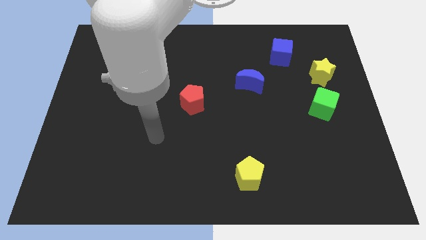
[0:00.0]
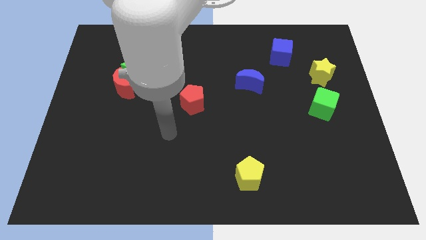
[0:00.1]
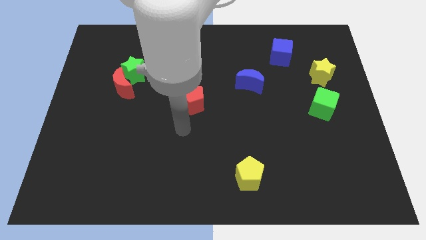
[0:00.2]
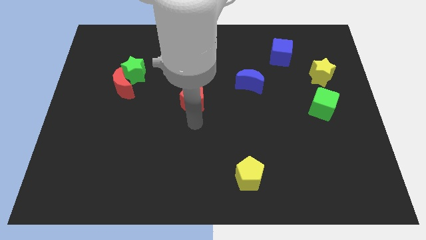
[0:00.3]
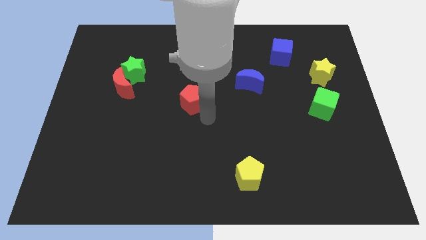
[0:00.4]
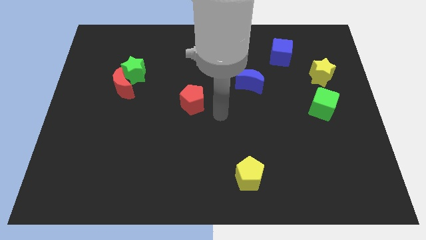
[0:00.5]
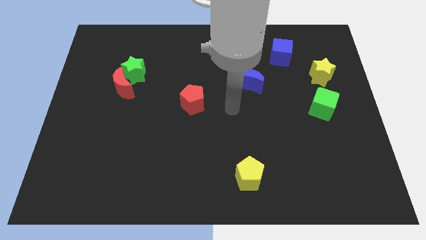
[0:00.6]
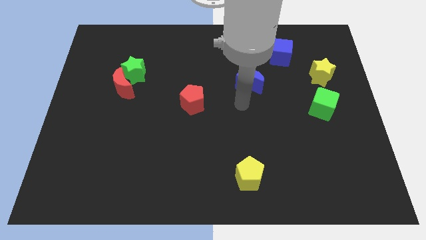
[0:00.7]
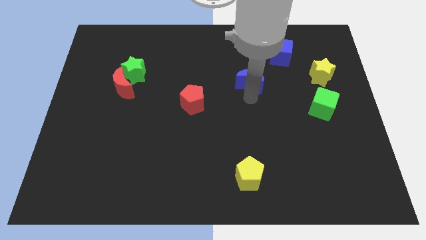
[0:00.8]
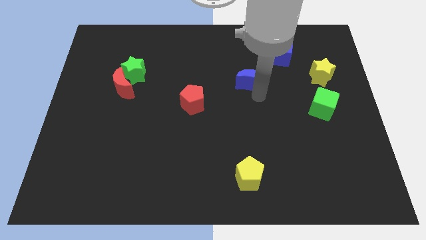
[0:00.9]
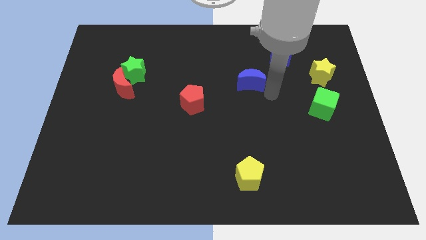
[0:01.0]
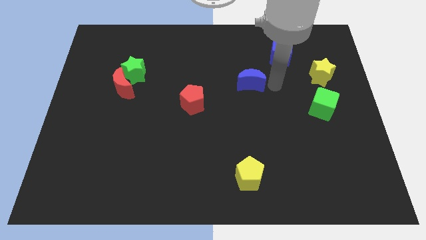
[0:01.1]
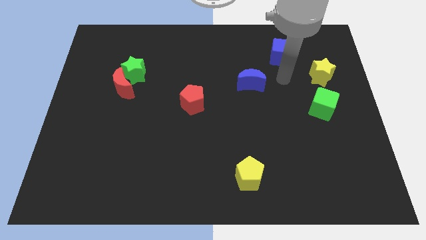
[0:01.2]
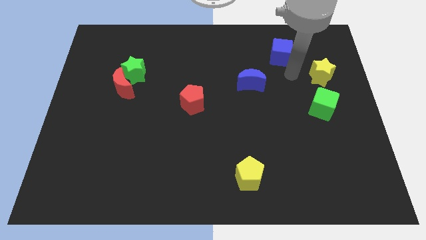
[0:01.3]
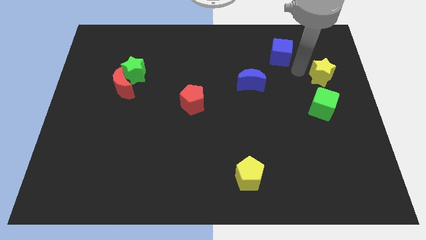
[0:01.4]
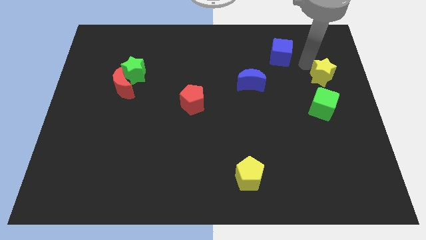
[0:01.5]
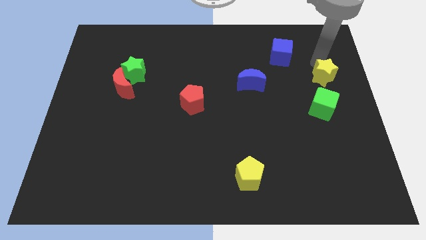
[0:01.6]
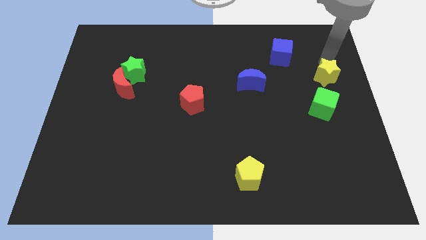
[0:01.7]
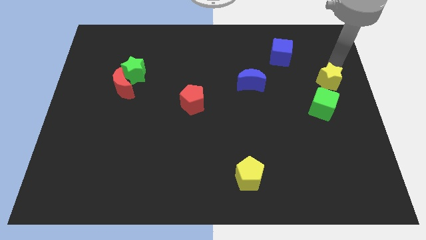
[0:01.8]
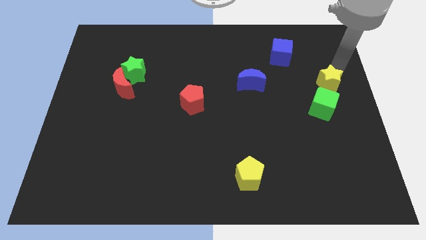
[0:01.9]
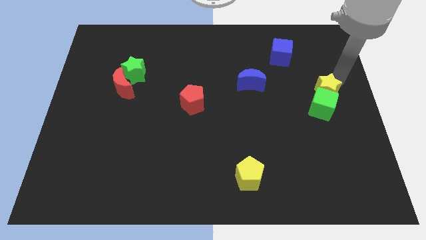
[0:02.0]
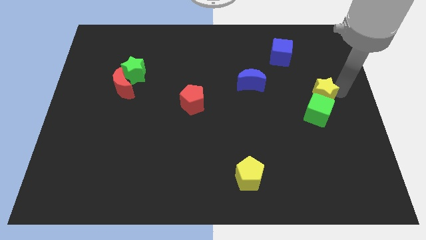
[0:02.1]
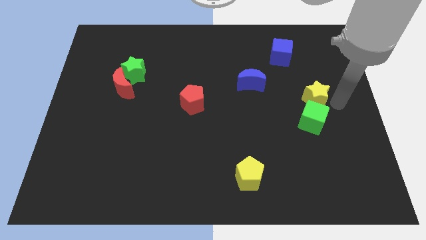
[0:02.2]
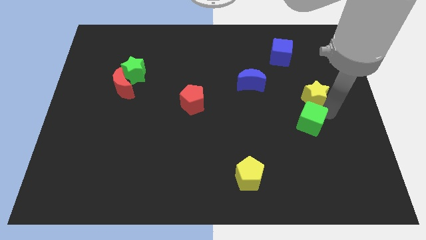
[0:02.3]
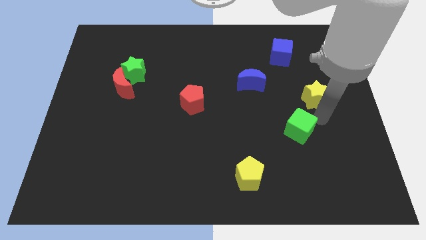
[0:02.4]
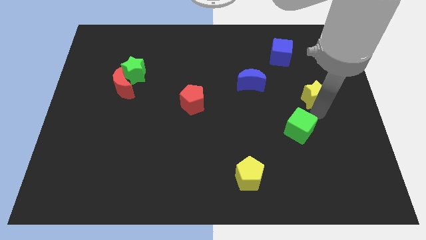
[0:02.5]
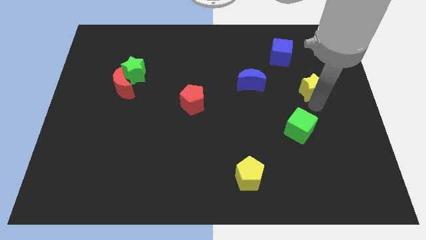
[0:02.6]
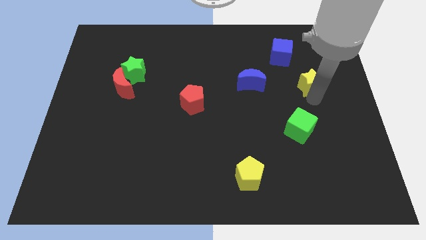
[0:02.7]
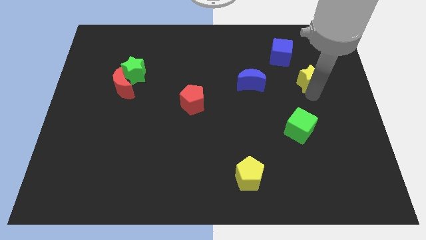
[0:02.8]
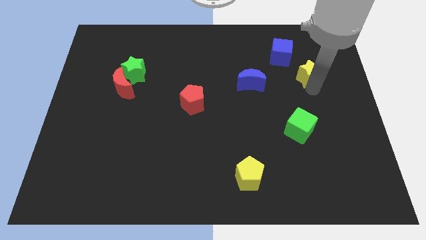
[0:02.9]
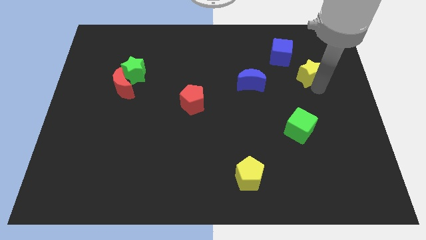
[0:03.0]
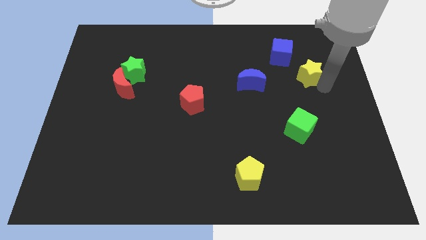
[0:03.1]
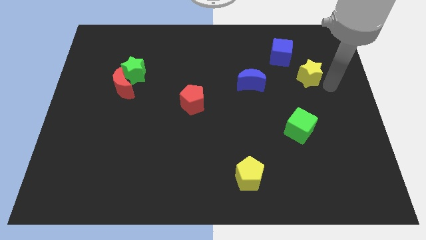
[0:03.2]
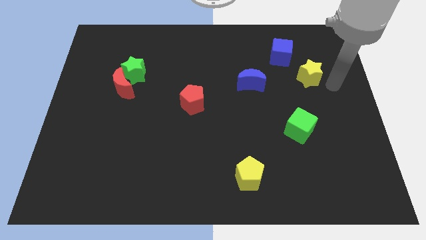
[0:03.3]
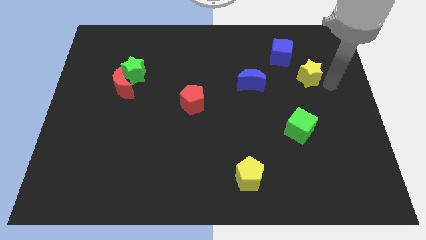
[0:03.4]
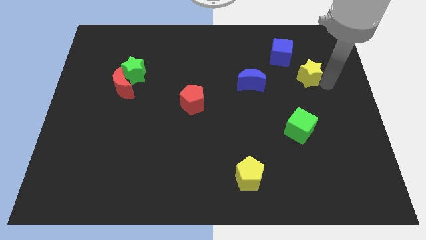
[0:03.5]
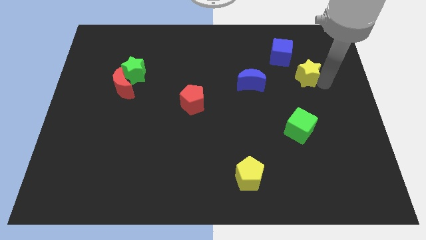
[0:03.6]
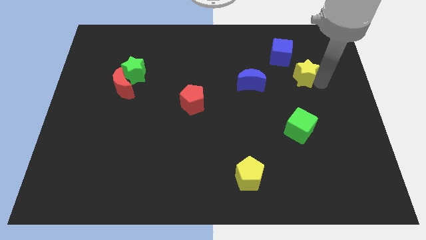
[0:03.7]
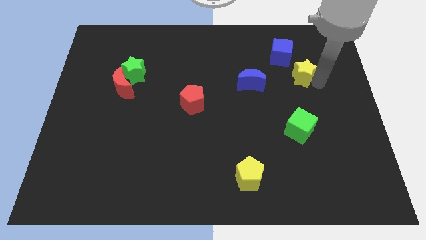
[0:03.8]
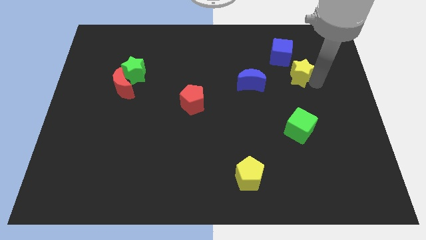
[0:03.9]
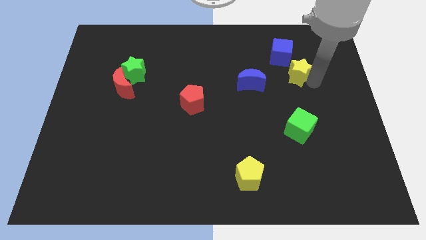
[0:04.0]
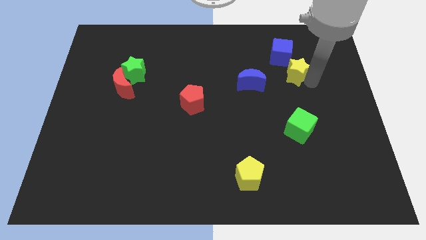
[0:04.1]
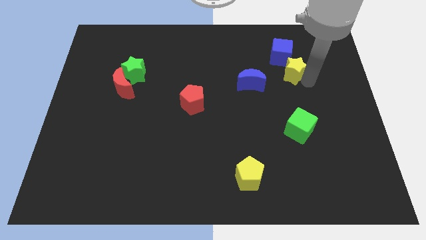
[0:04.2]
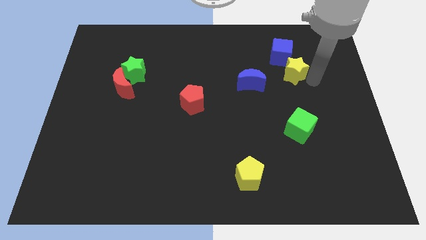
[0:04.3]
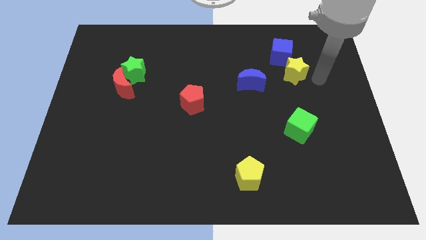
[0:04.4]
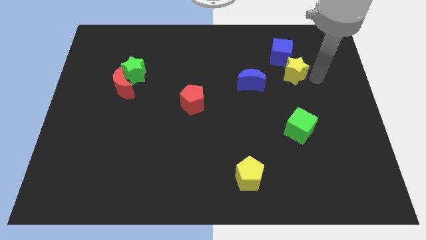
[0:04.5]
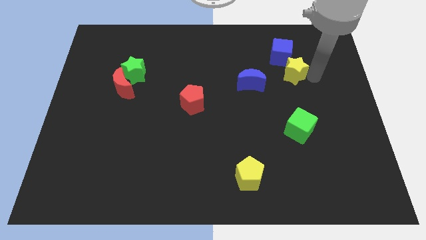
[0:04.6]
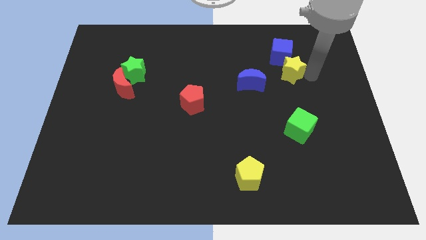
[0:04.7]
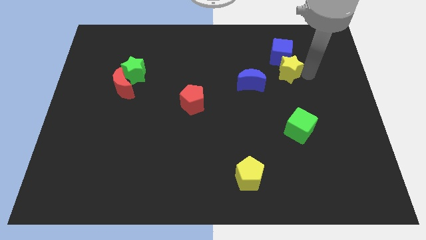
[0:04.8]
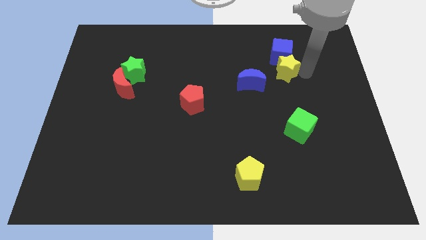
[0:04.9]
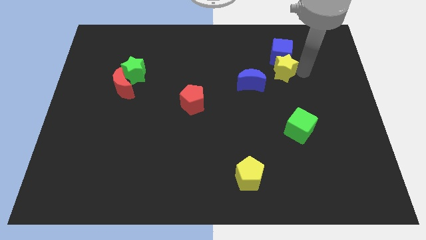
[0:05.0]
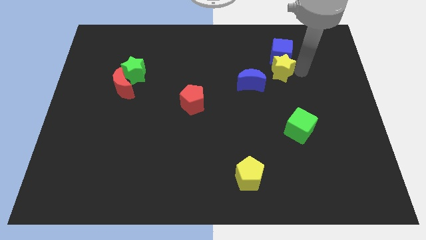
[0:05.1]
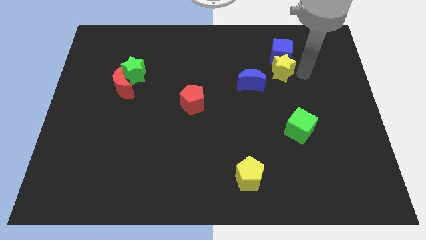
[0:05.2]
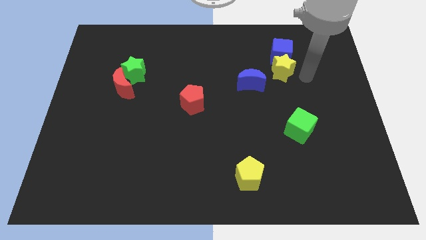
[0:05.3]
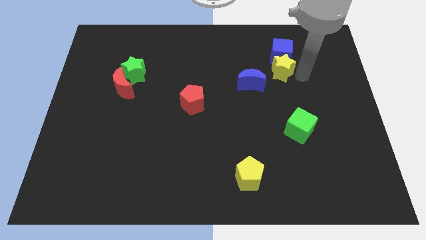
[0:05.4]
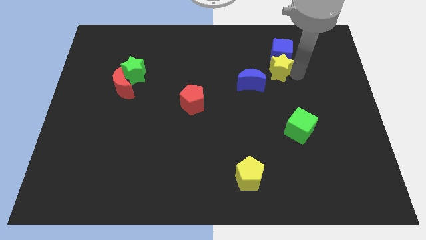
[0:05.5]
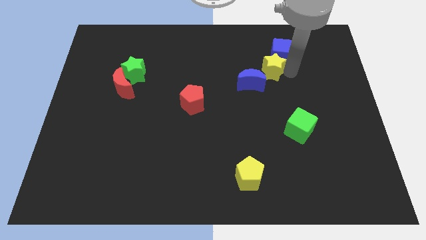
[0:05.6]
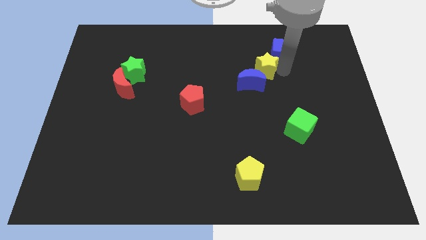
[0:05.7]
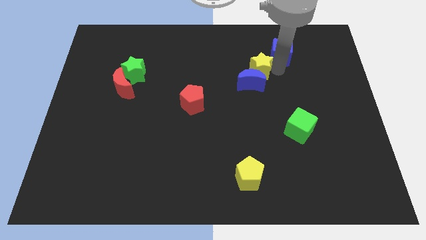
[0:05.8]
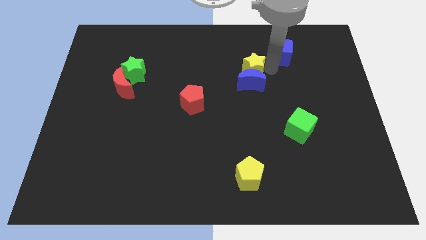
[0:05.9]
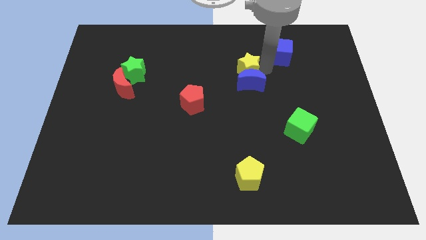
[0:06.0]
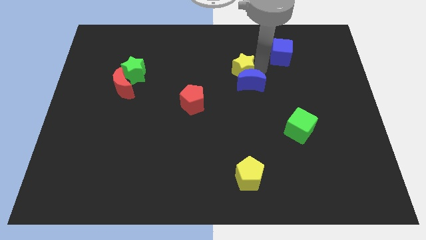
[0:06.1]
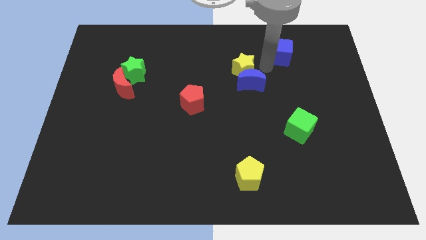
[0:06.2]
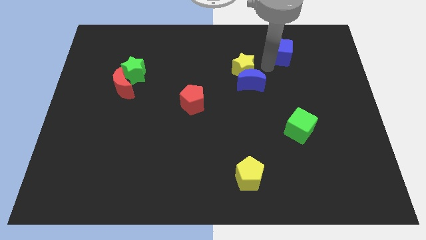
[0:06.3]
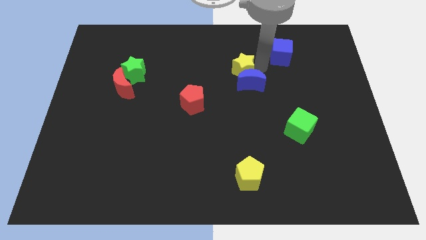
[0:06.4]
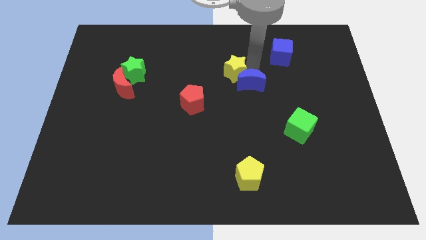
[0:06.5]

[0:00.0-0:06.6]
push the yellow star to the left

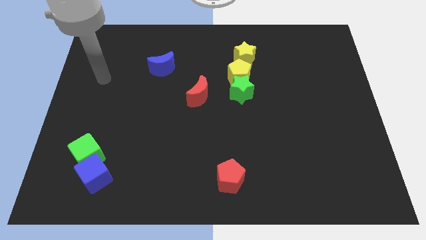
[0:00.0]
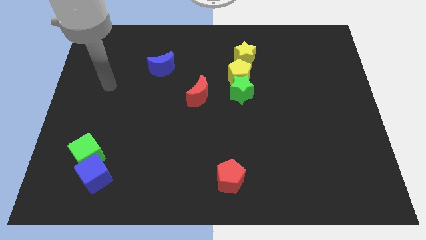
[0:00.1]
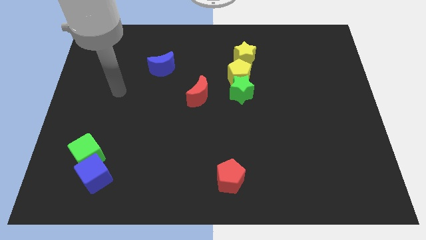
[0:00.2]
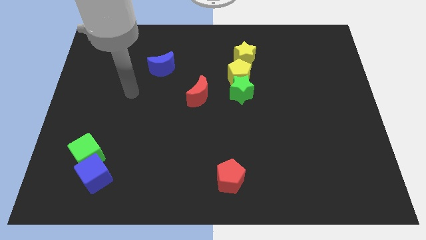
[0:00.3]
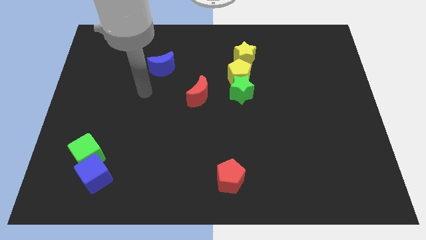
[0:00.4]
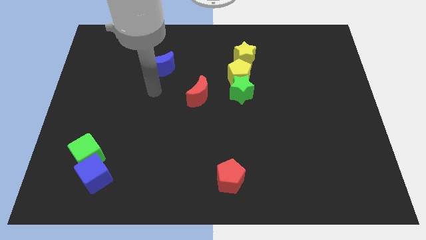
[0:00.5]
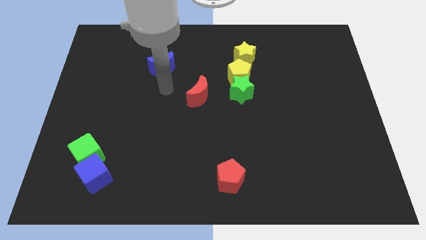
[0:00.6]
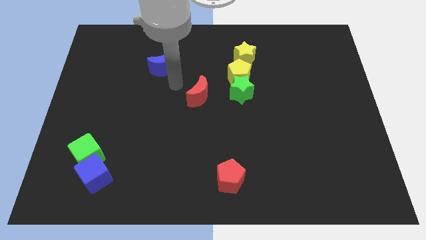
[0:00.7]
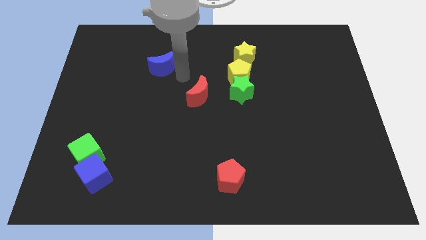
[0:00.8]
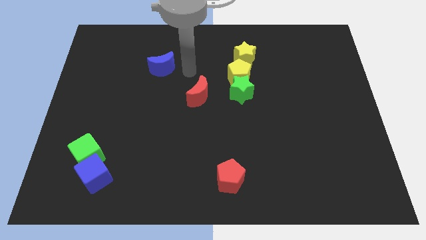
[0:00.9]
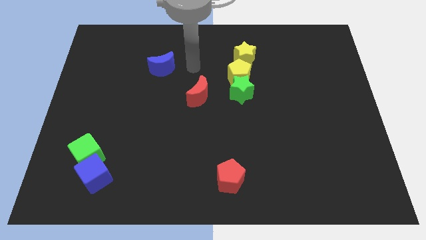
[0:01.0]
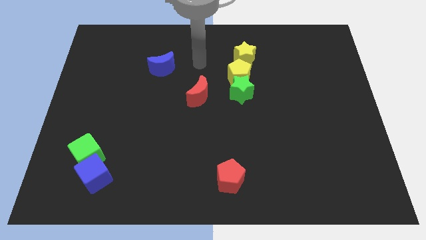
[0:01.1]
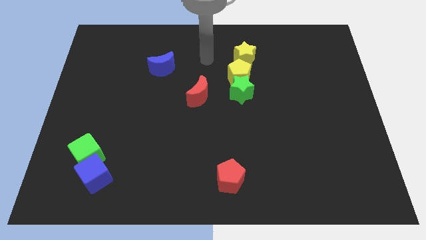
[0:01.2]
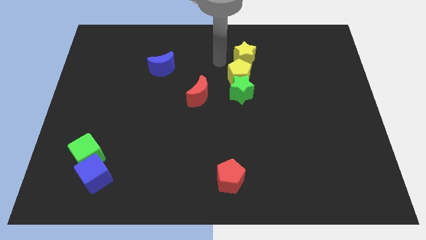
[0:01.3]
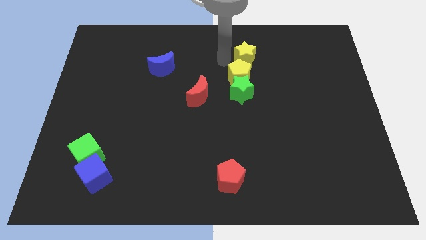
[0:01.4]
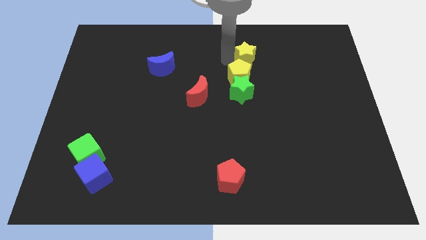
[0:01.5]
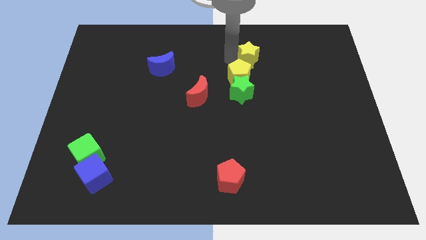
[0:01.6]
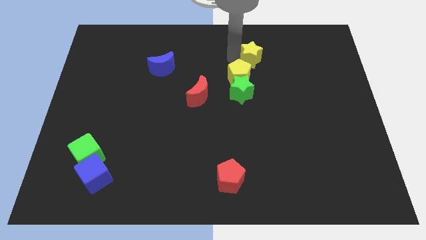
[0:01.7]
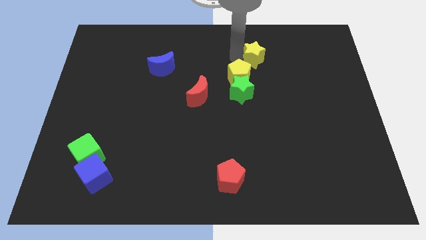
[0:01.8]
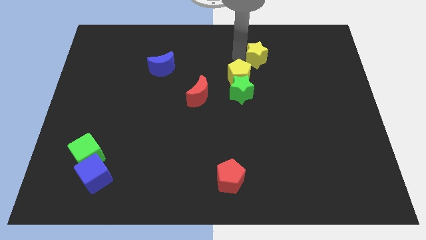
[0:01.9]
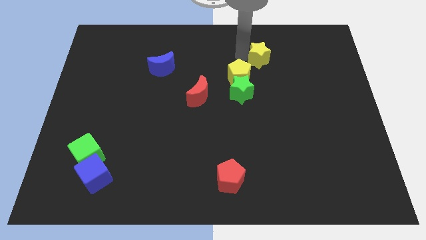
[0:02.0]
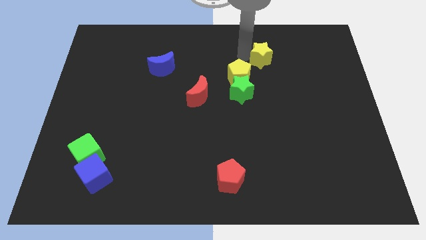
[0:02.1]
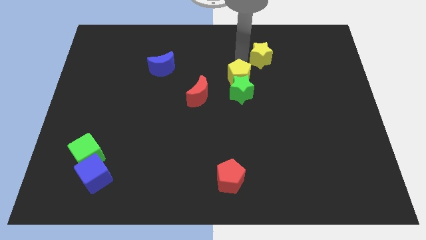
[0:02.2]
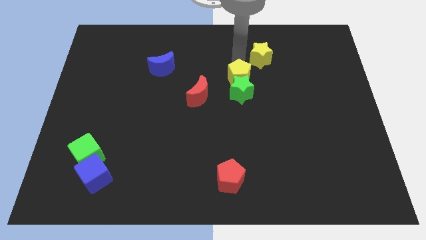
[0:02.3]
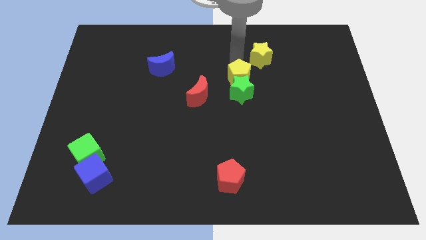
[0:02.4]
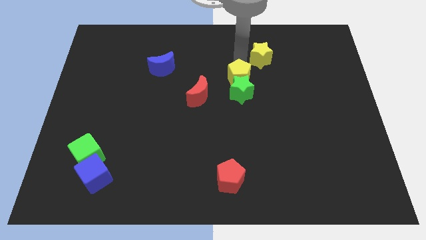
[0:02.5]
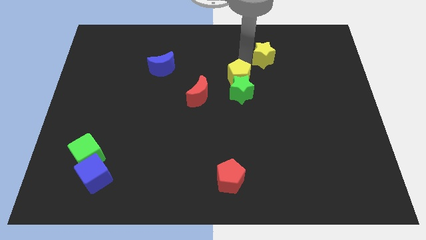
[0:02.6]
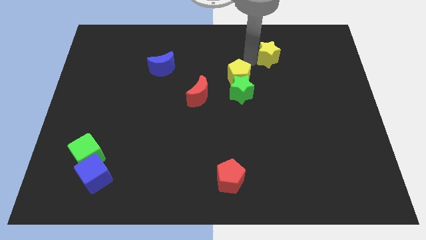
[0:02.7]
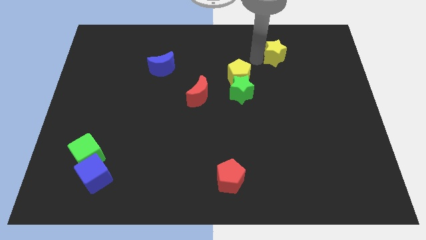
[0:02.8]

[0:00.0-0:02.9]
push the yellow star right somewhat
